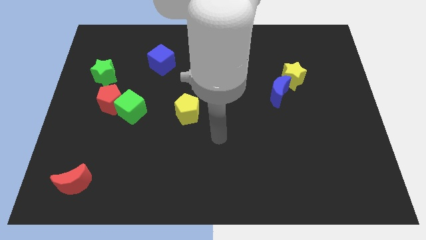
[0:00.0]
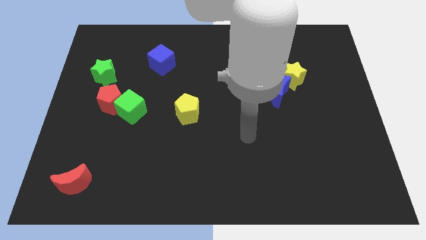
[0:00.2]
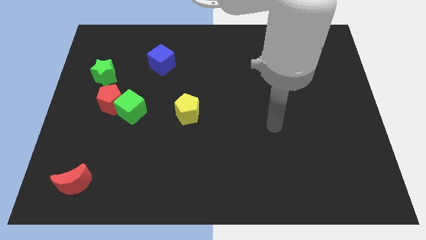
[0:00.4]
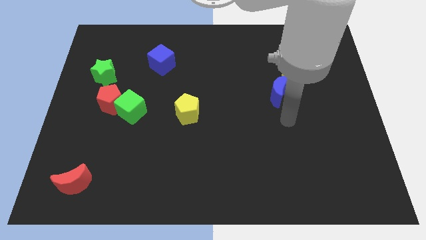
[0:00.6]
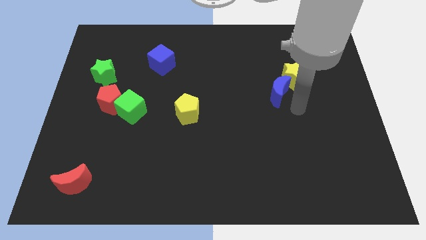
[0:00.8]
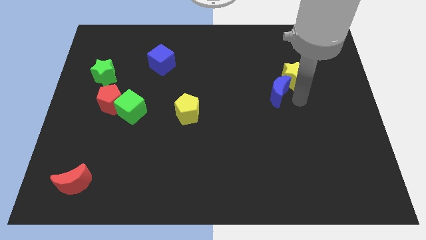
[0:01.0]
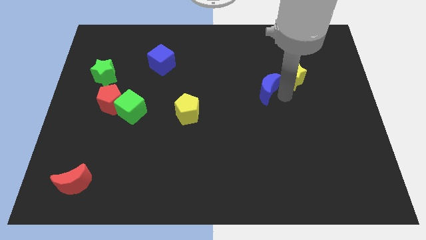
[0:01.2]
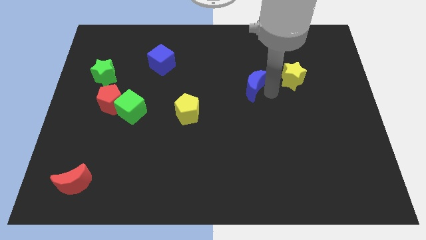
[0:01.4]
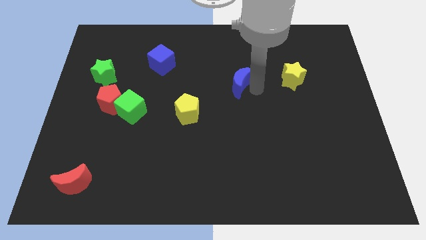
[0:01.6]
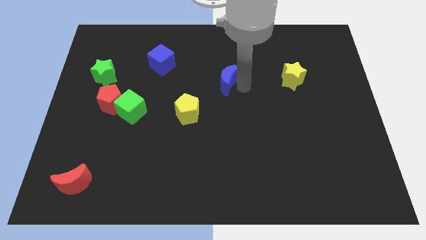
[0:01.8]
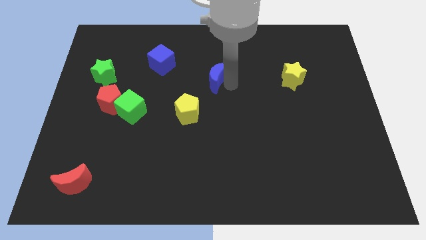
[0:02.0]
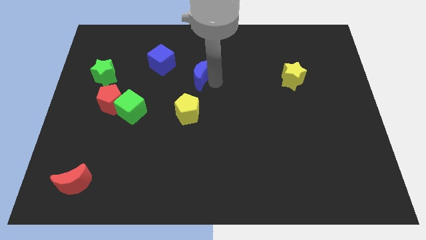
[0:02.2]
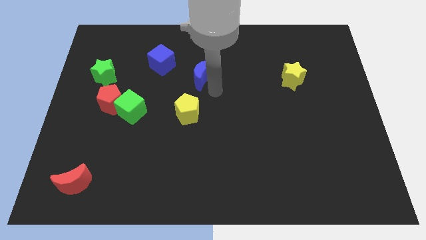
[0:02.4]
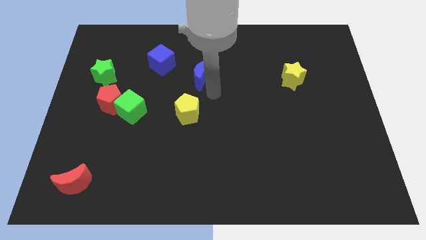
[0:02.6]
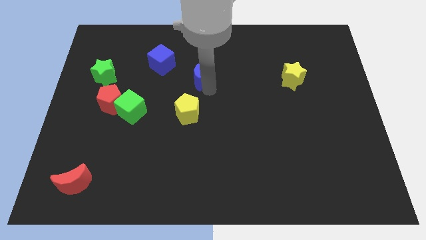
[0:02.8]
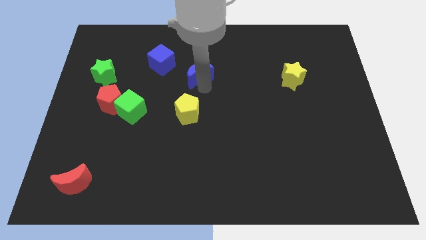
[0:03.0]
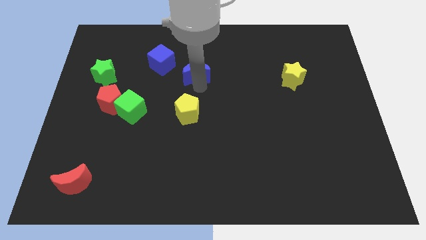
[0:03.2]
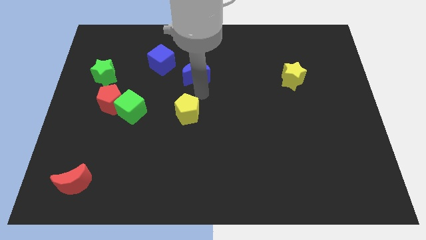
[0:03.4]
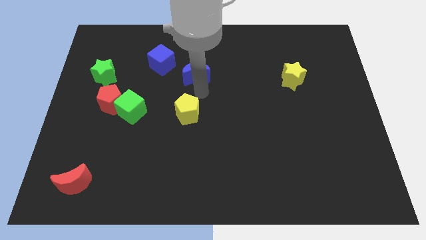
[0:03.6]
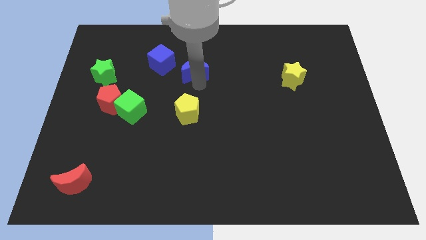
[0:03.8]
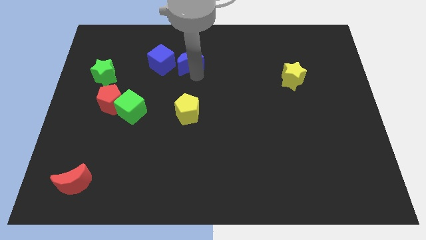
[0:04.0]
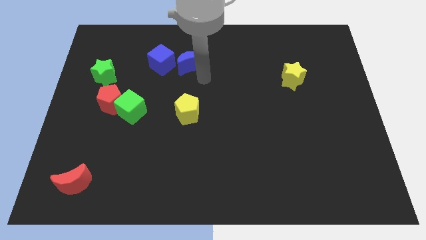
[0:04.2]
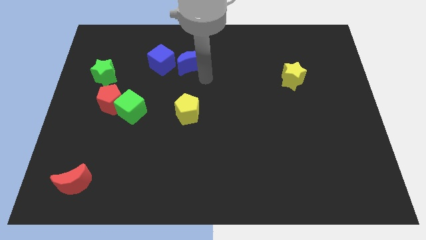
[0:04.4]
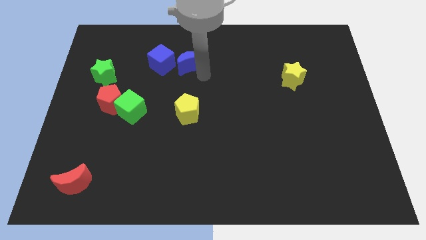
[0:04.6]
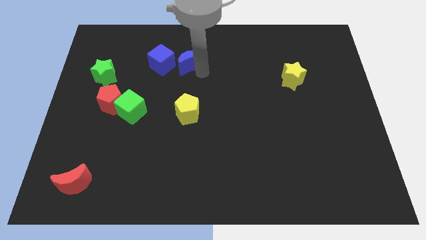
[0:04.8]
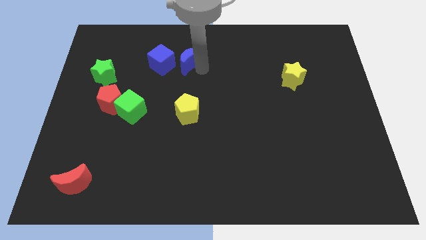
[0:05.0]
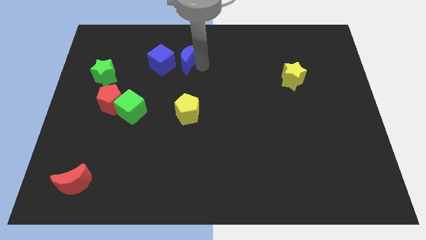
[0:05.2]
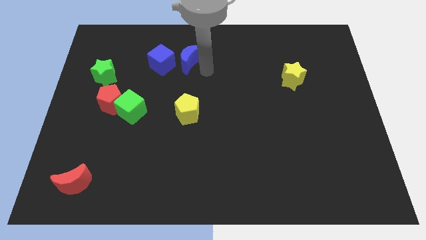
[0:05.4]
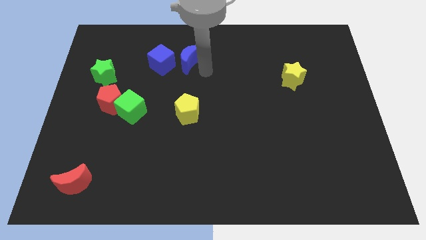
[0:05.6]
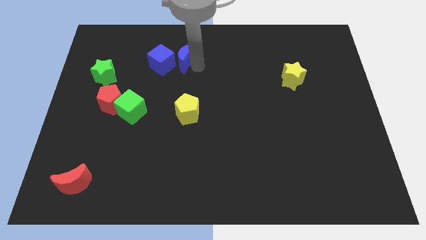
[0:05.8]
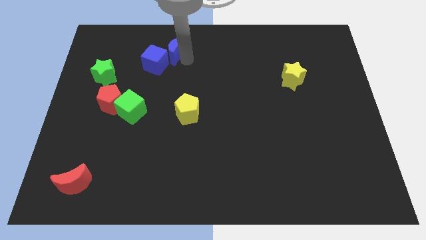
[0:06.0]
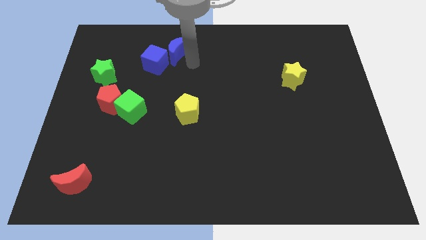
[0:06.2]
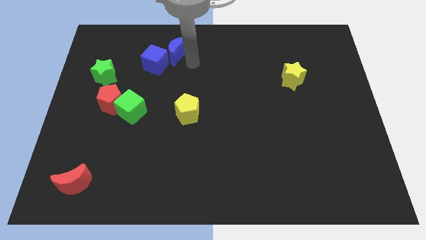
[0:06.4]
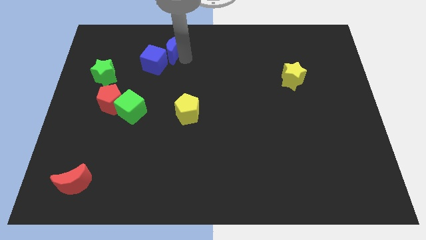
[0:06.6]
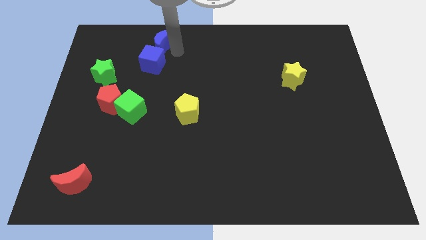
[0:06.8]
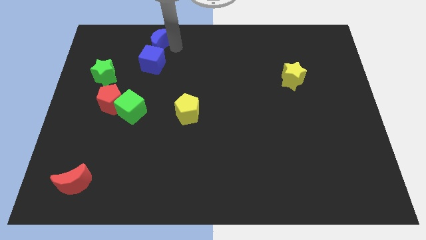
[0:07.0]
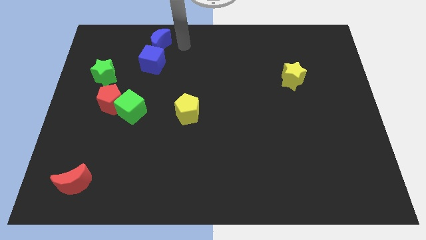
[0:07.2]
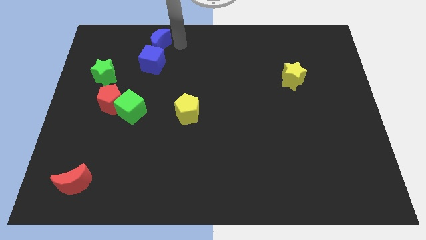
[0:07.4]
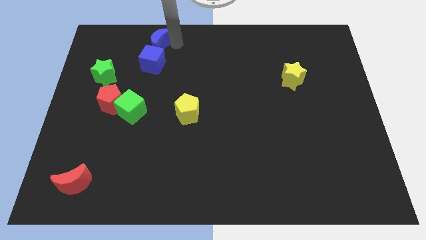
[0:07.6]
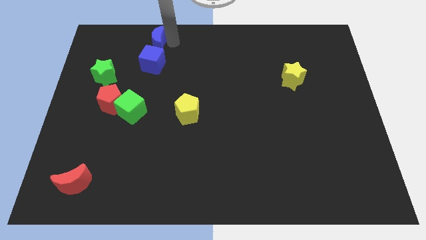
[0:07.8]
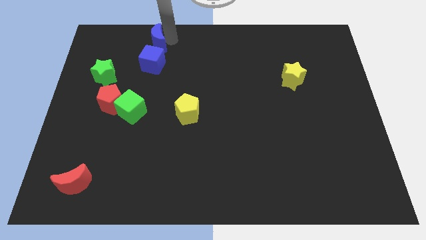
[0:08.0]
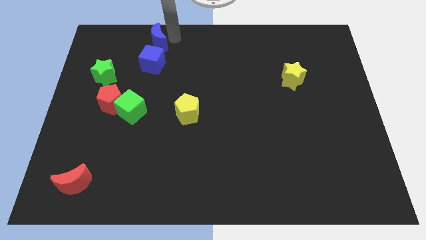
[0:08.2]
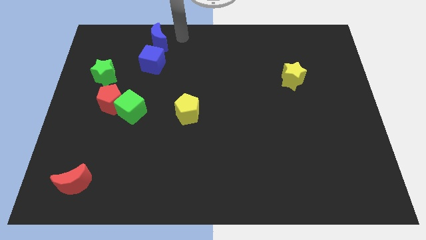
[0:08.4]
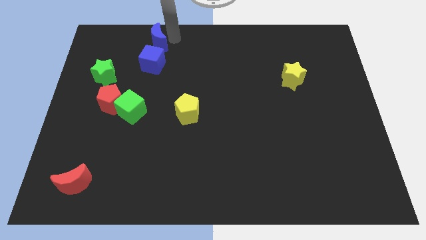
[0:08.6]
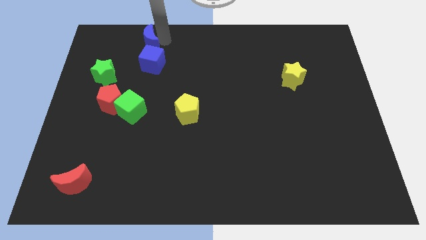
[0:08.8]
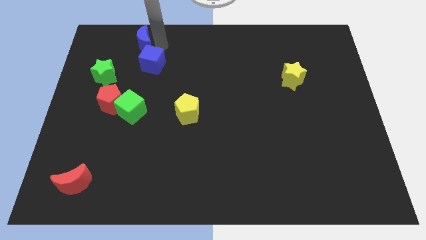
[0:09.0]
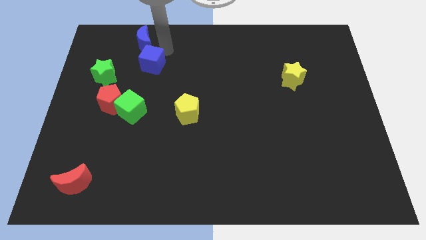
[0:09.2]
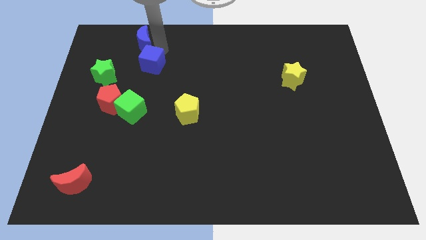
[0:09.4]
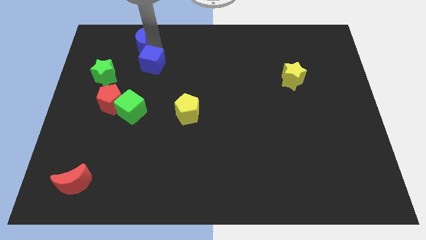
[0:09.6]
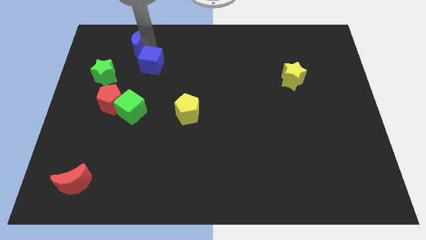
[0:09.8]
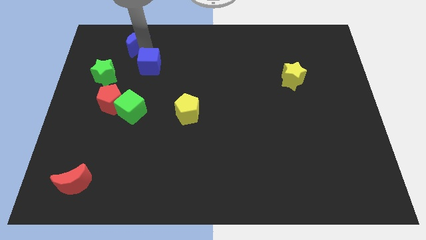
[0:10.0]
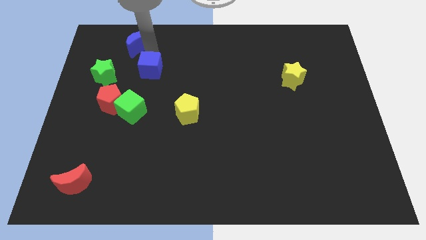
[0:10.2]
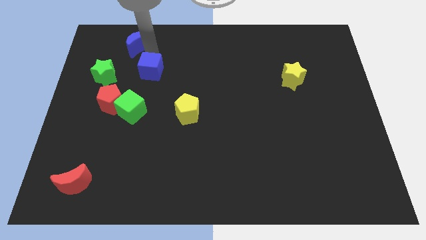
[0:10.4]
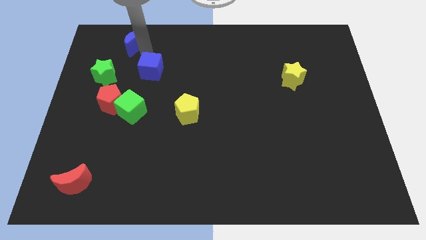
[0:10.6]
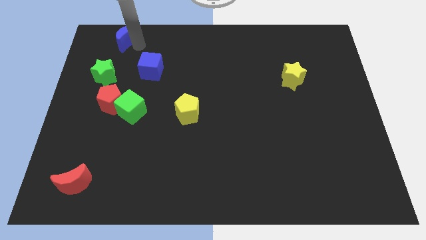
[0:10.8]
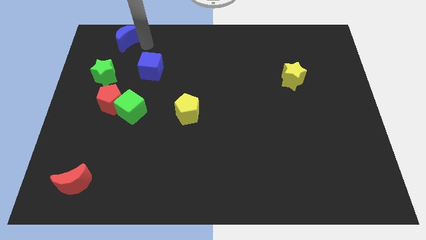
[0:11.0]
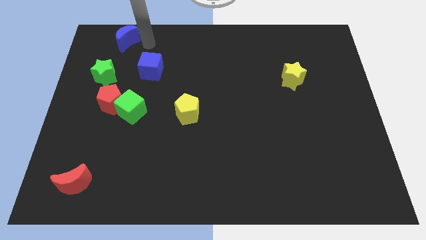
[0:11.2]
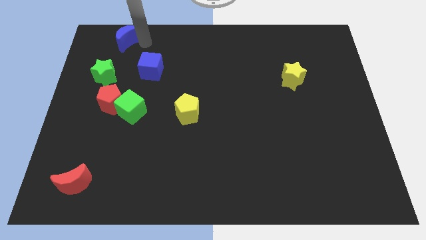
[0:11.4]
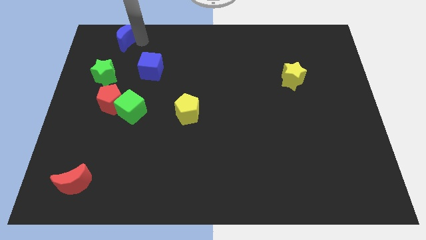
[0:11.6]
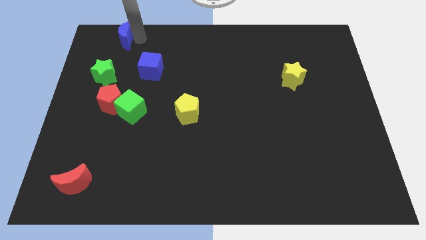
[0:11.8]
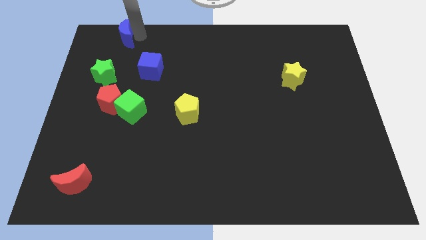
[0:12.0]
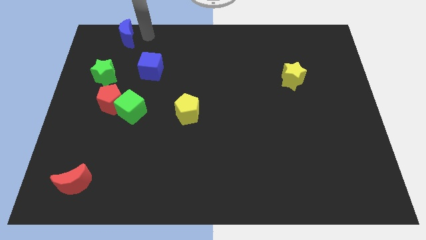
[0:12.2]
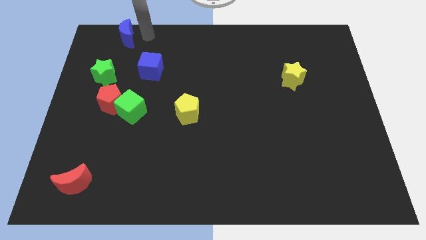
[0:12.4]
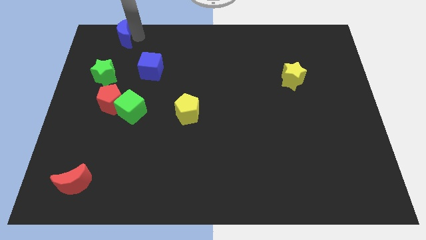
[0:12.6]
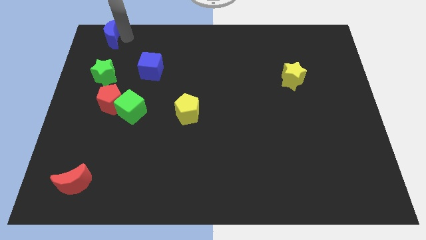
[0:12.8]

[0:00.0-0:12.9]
push the blue moon to the top left of the board
